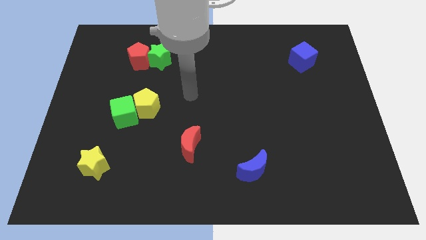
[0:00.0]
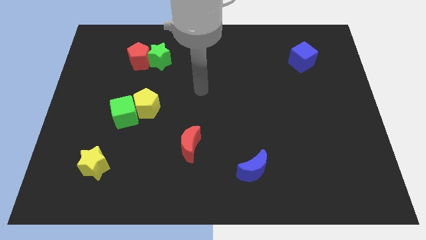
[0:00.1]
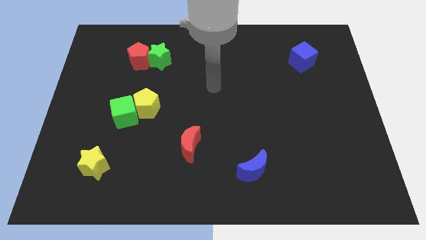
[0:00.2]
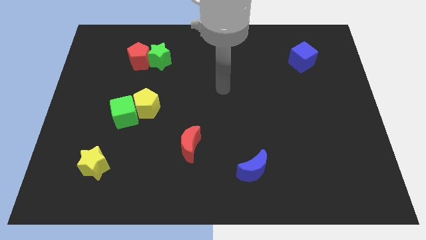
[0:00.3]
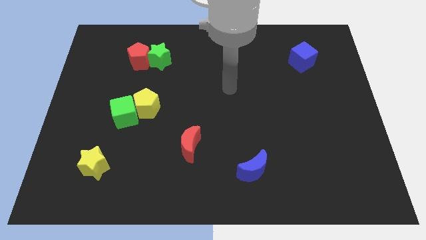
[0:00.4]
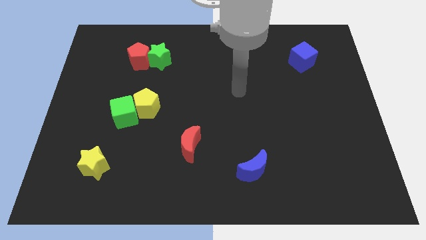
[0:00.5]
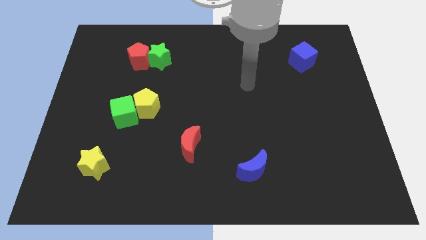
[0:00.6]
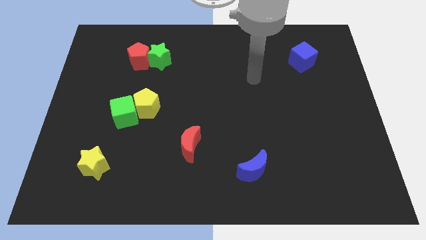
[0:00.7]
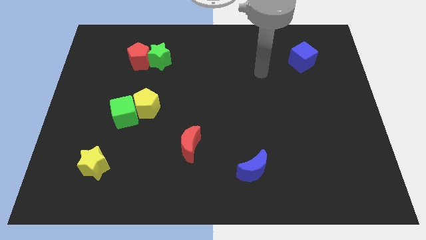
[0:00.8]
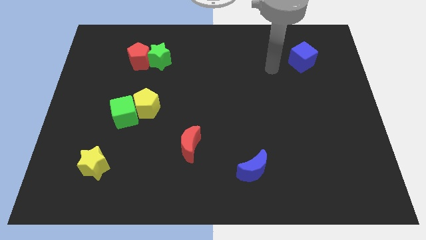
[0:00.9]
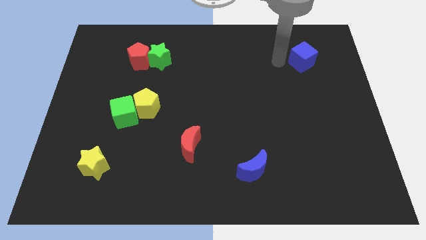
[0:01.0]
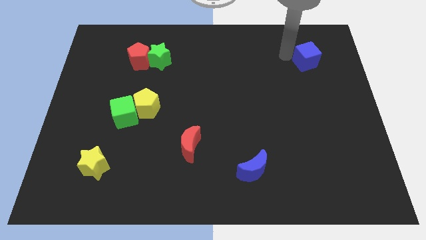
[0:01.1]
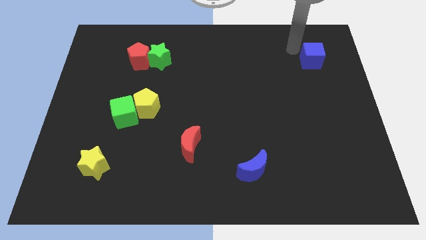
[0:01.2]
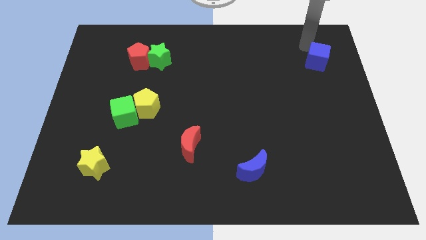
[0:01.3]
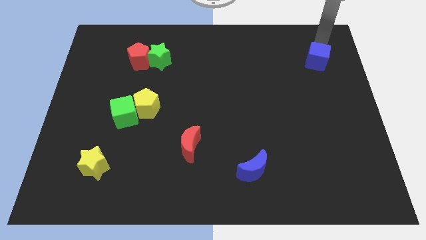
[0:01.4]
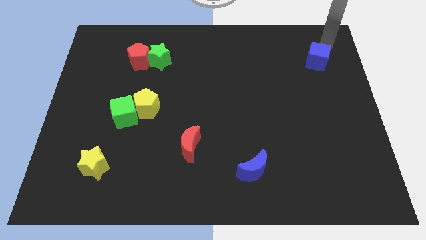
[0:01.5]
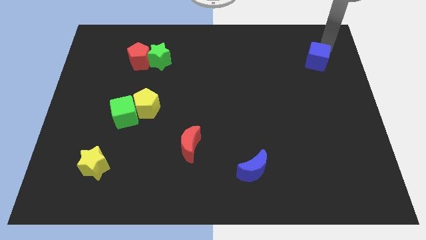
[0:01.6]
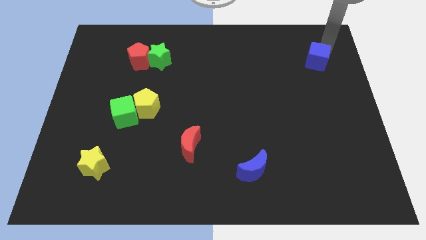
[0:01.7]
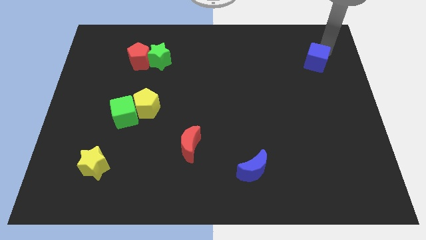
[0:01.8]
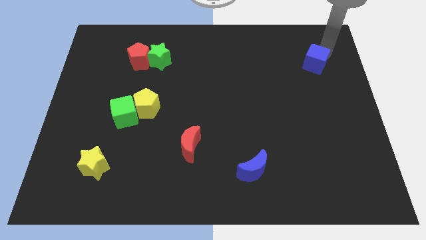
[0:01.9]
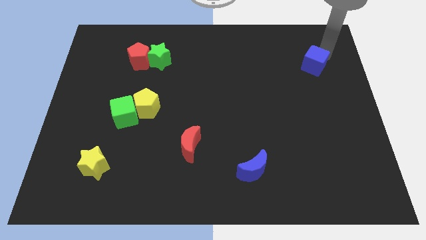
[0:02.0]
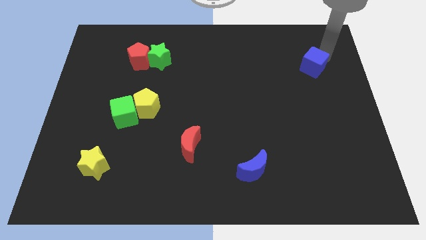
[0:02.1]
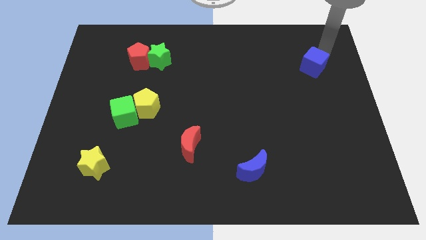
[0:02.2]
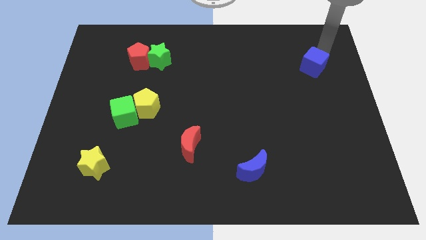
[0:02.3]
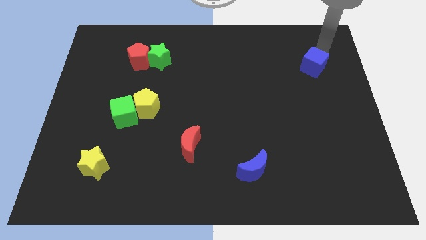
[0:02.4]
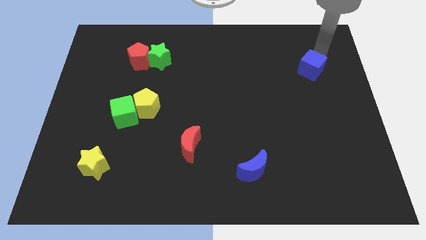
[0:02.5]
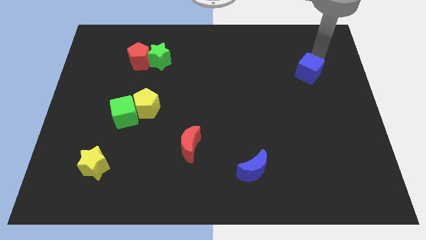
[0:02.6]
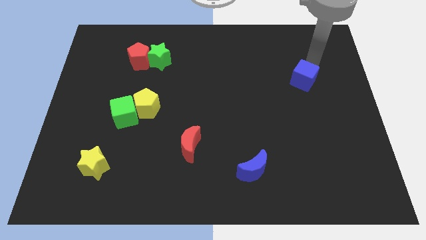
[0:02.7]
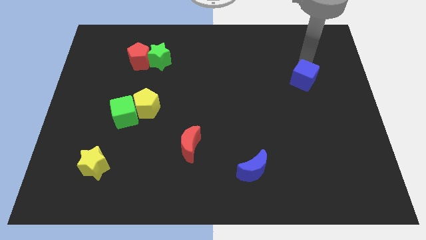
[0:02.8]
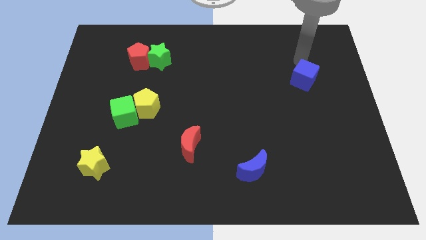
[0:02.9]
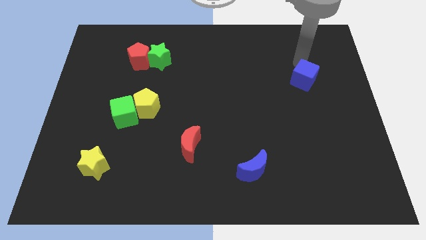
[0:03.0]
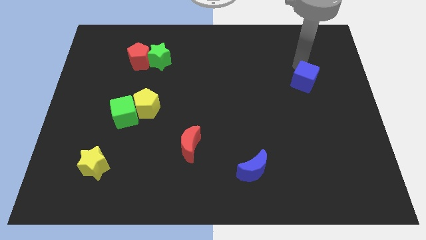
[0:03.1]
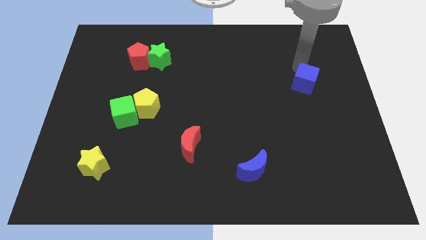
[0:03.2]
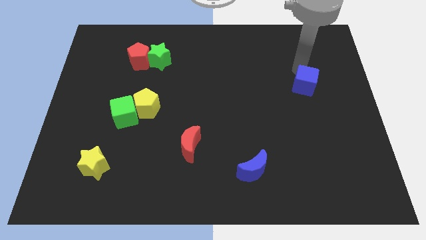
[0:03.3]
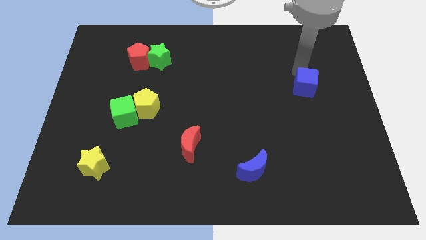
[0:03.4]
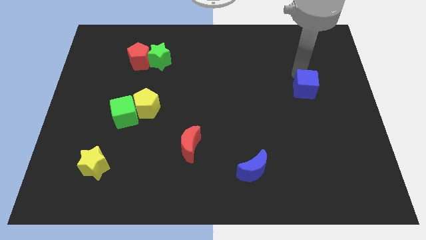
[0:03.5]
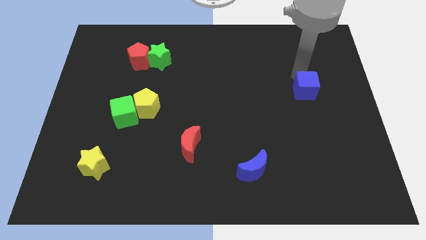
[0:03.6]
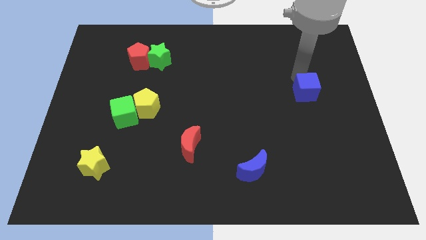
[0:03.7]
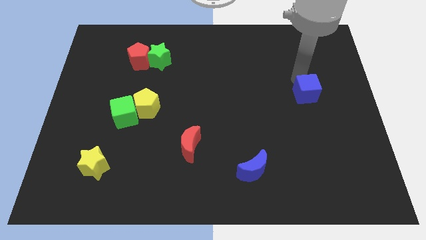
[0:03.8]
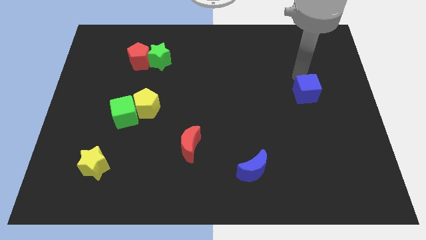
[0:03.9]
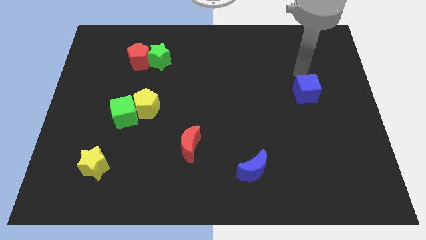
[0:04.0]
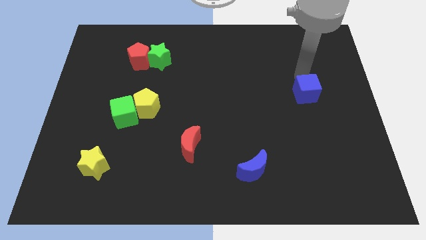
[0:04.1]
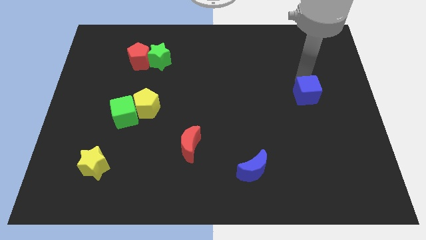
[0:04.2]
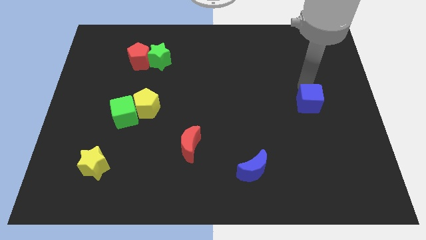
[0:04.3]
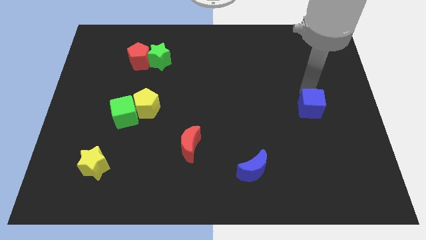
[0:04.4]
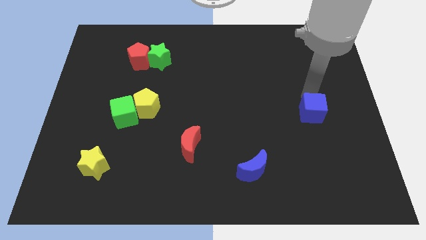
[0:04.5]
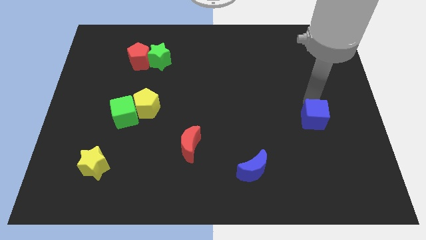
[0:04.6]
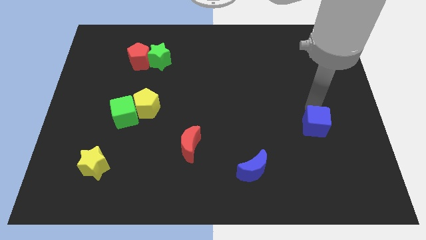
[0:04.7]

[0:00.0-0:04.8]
move the blue cube down

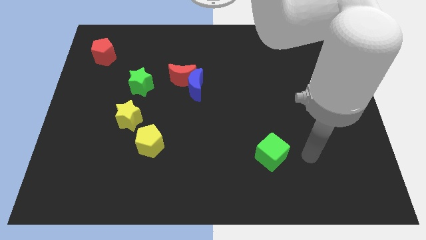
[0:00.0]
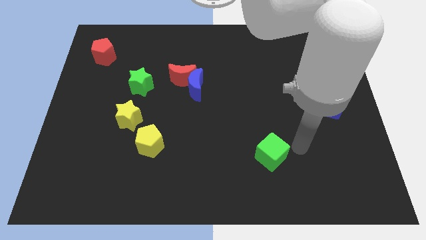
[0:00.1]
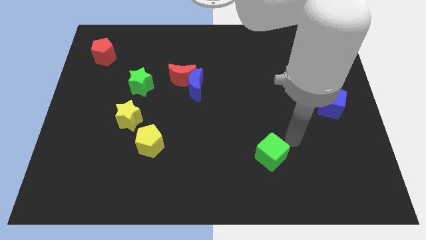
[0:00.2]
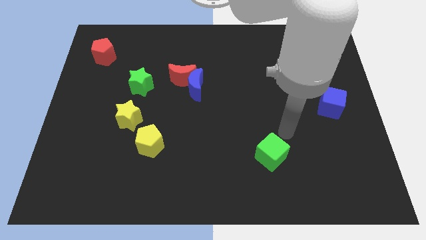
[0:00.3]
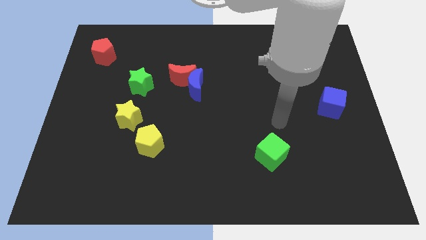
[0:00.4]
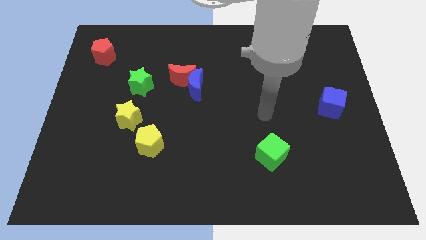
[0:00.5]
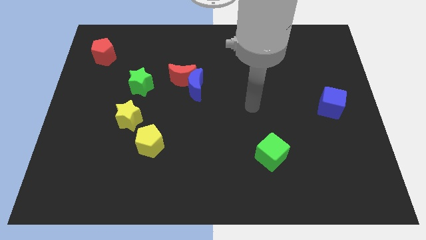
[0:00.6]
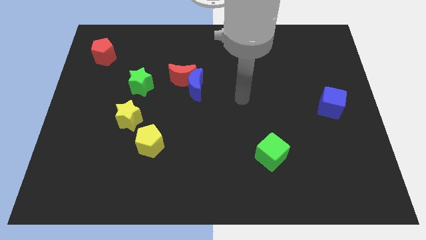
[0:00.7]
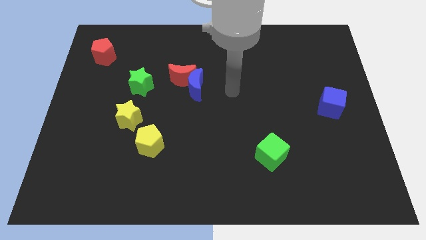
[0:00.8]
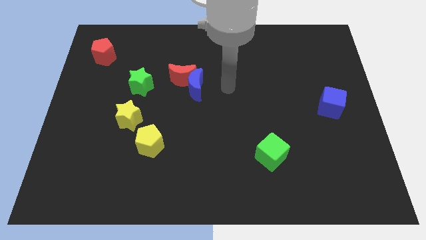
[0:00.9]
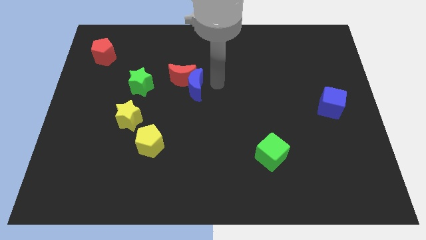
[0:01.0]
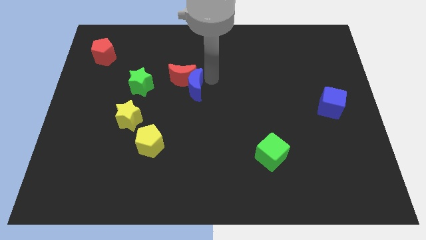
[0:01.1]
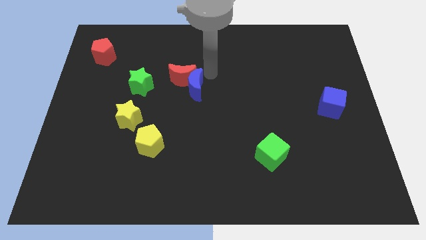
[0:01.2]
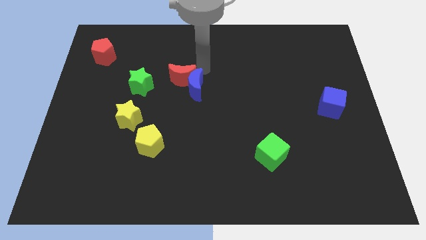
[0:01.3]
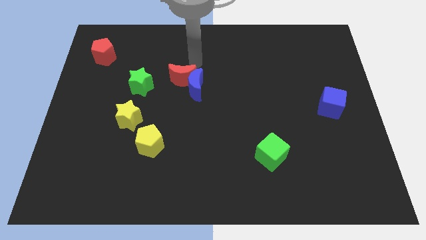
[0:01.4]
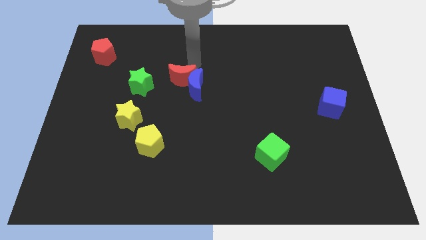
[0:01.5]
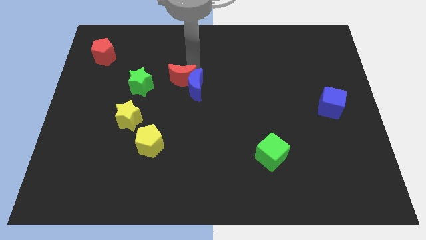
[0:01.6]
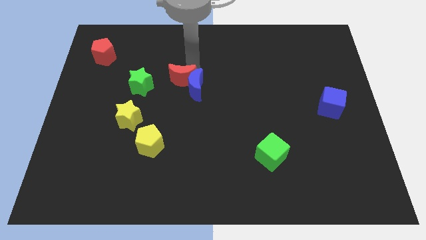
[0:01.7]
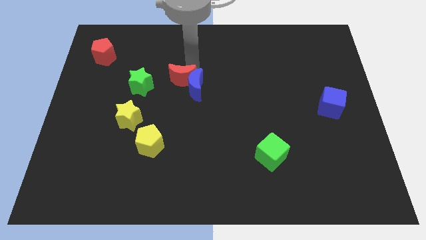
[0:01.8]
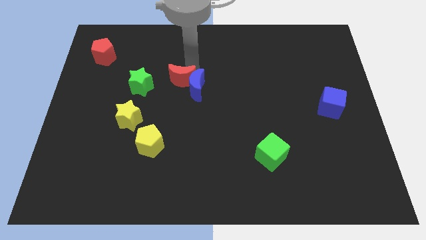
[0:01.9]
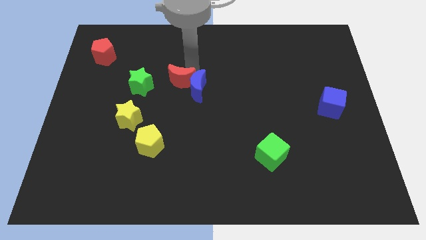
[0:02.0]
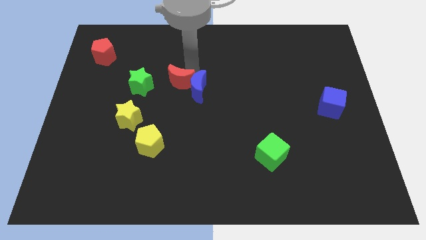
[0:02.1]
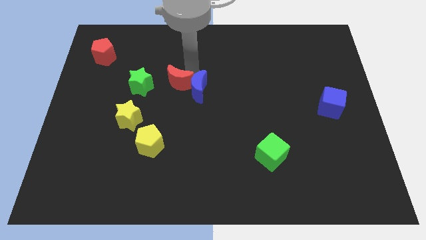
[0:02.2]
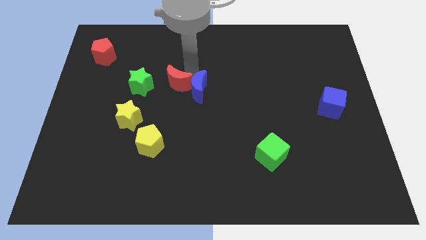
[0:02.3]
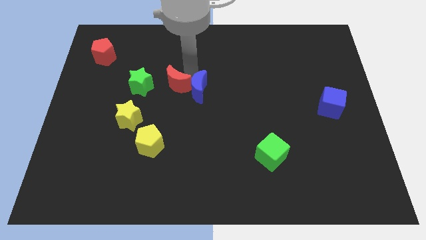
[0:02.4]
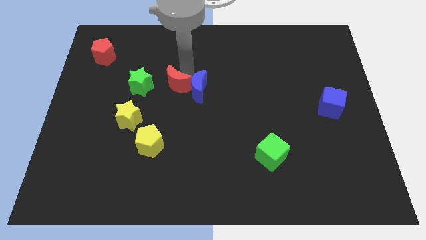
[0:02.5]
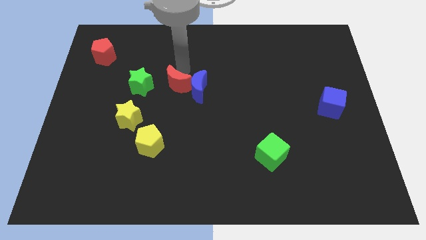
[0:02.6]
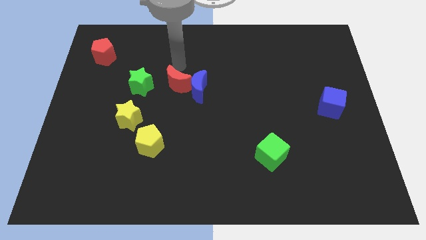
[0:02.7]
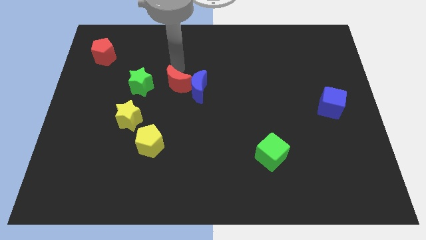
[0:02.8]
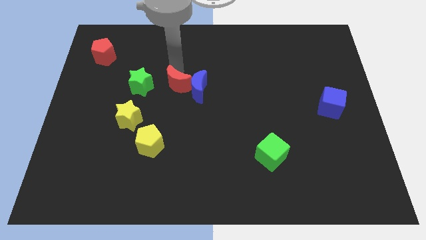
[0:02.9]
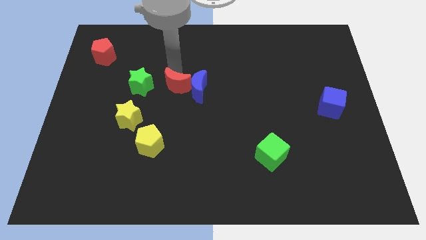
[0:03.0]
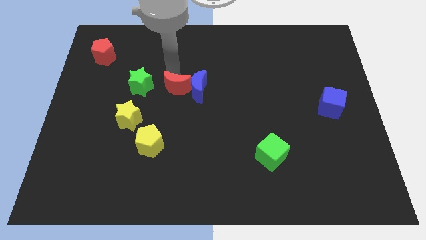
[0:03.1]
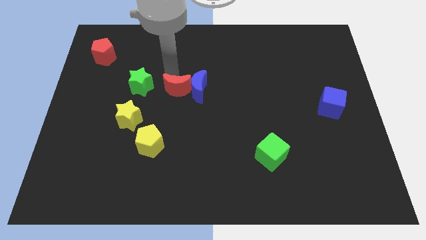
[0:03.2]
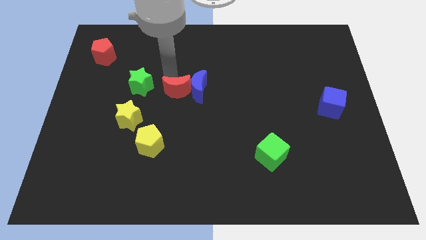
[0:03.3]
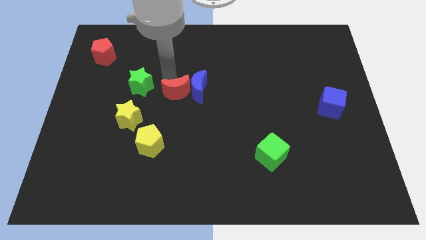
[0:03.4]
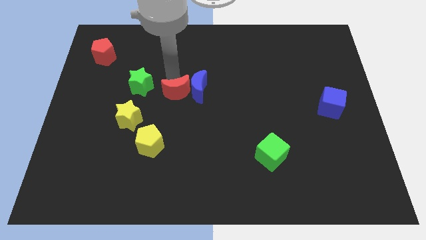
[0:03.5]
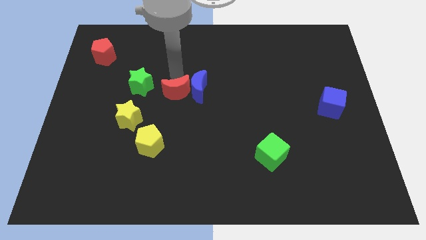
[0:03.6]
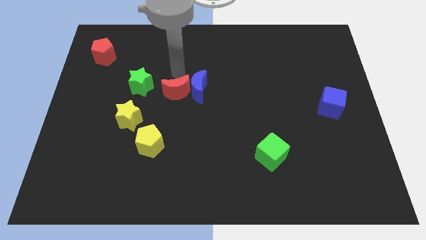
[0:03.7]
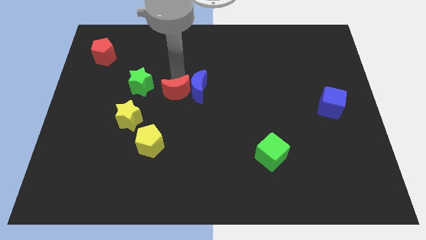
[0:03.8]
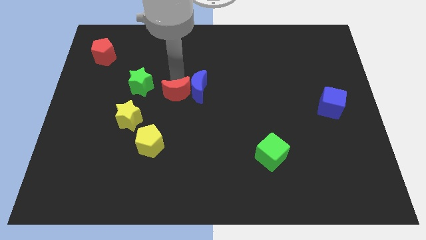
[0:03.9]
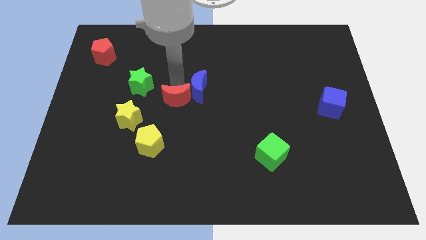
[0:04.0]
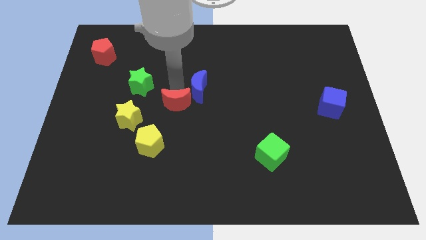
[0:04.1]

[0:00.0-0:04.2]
push the red moon a little downwards
